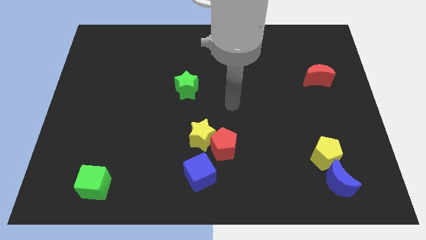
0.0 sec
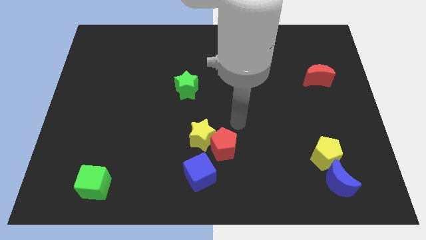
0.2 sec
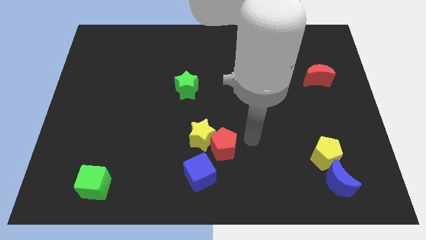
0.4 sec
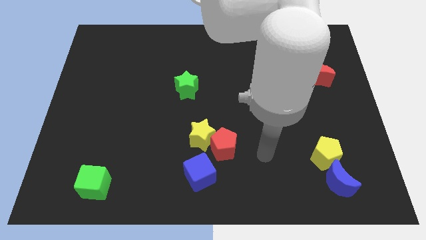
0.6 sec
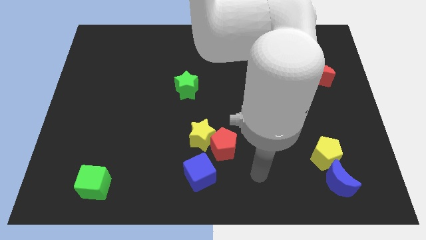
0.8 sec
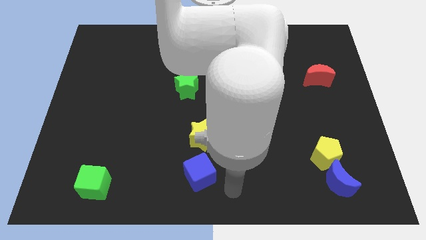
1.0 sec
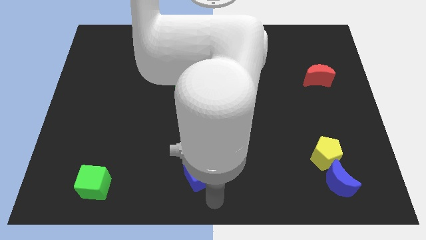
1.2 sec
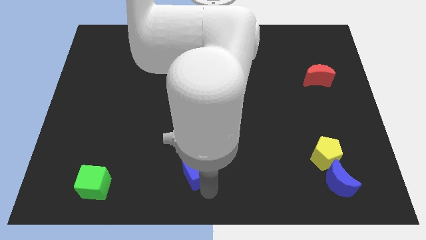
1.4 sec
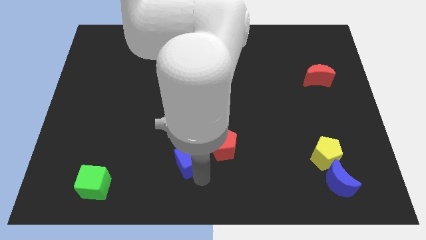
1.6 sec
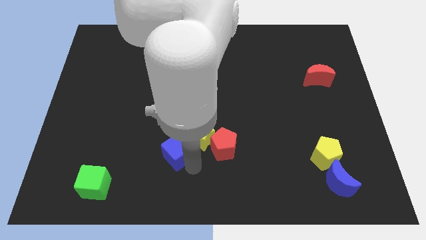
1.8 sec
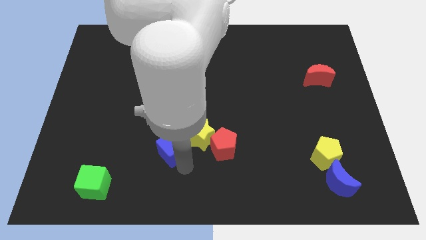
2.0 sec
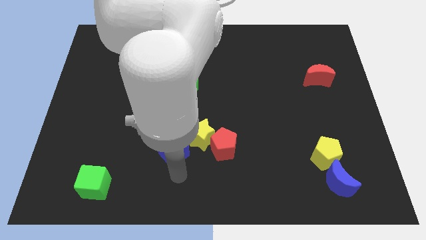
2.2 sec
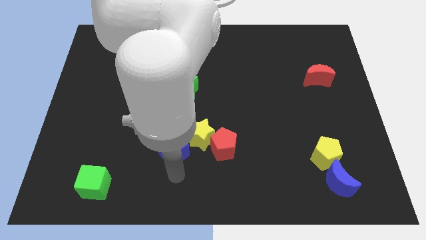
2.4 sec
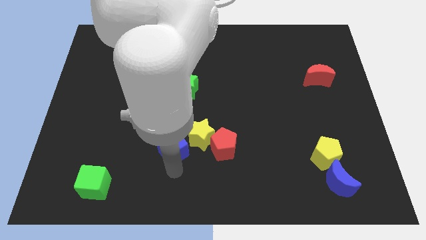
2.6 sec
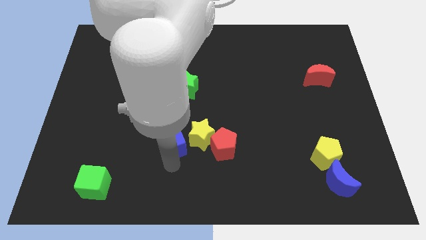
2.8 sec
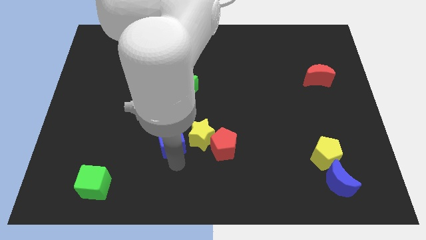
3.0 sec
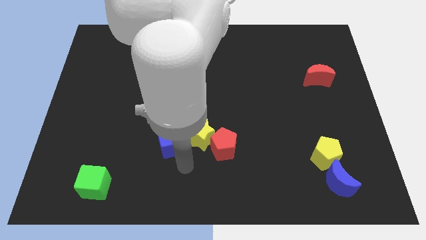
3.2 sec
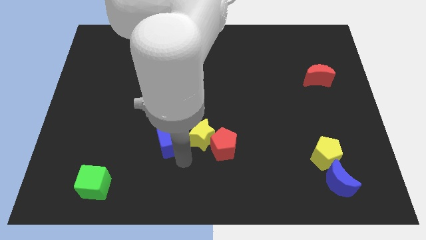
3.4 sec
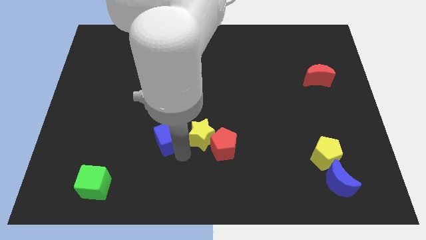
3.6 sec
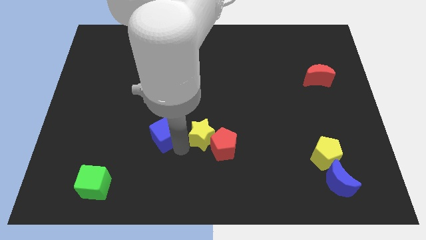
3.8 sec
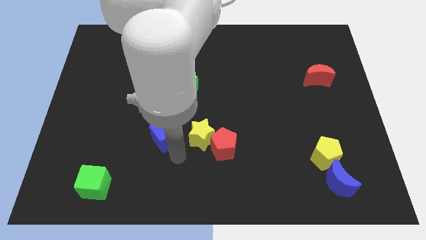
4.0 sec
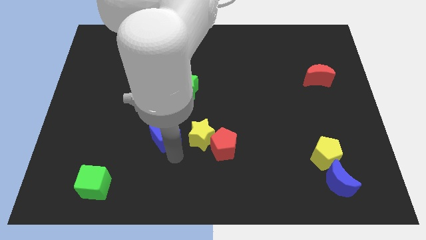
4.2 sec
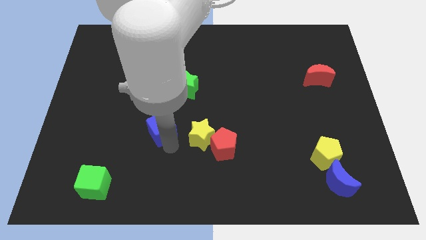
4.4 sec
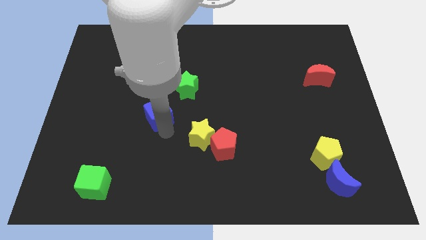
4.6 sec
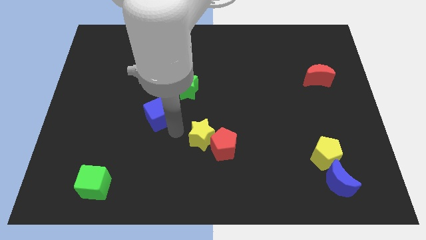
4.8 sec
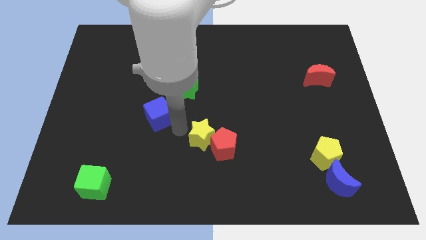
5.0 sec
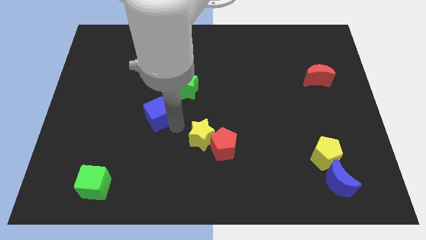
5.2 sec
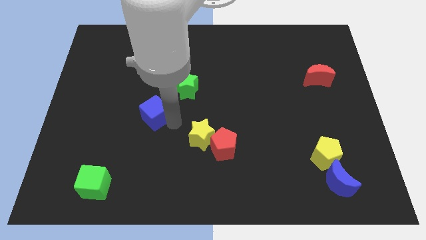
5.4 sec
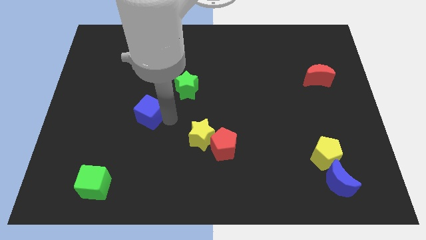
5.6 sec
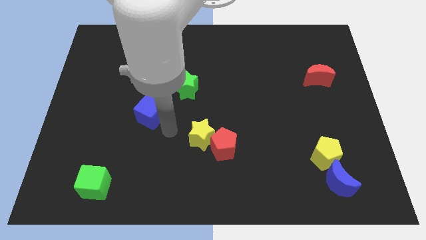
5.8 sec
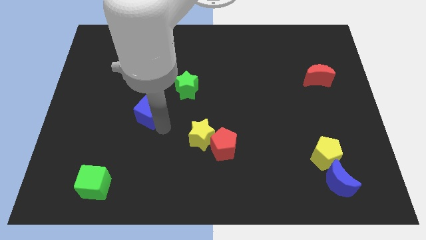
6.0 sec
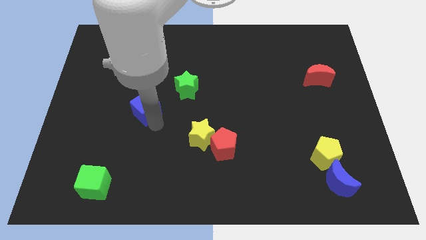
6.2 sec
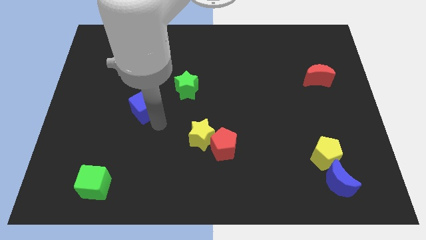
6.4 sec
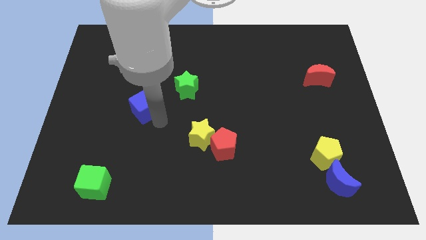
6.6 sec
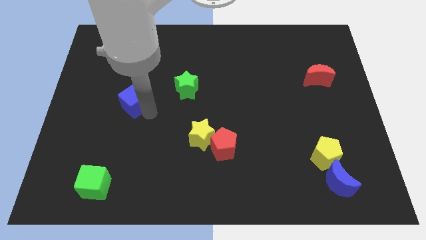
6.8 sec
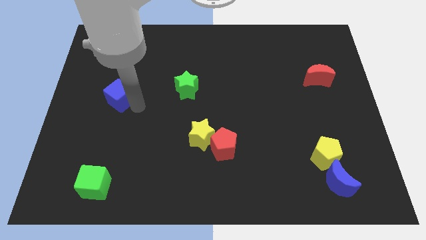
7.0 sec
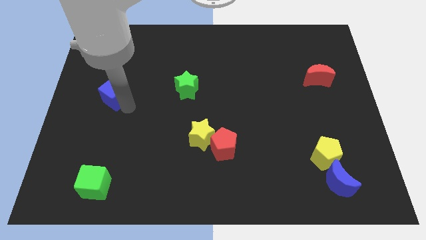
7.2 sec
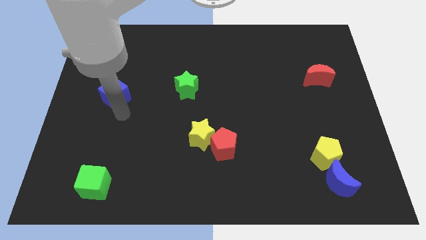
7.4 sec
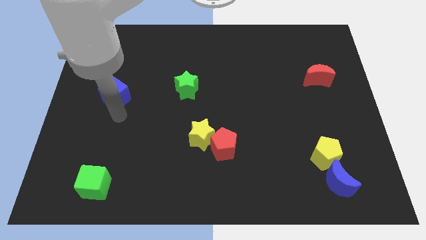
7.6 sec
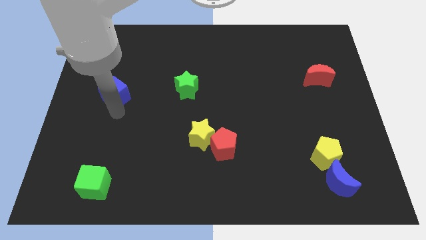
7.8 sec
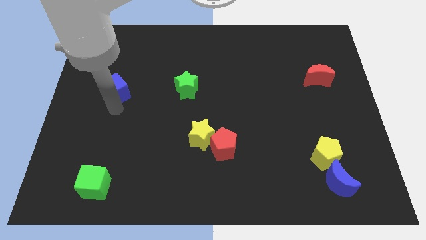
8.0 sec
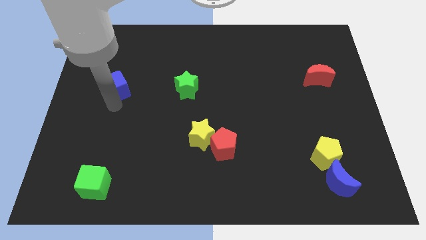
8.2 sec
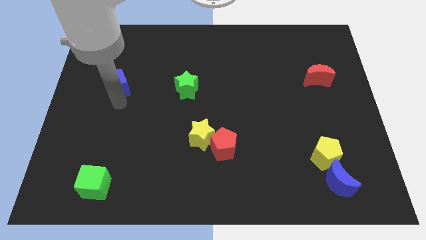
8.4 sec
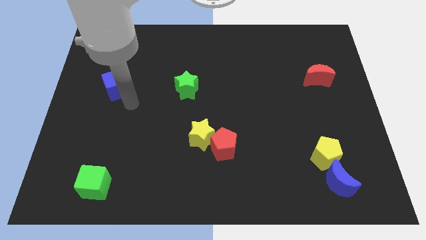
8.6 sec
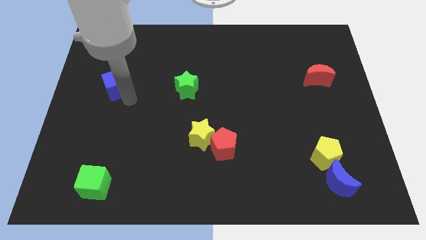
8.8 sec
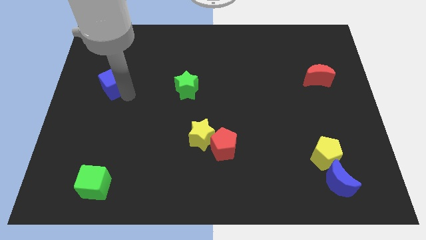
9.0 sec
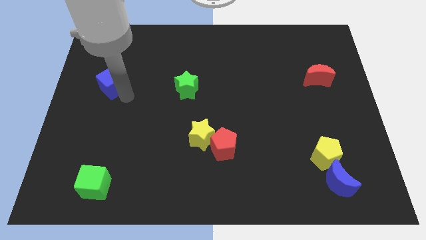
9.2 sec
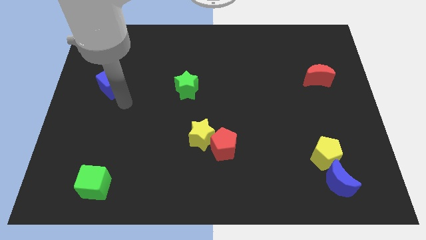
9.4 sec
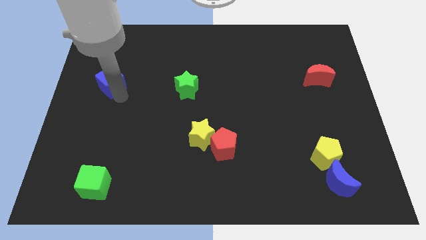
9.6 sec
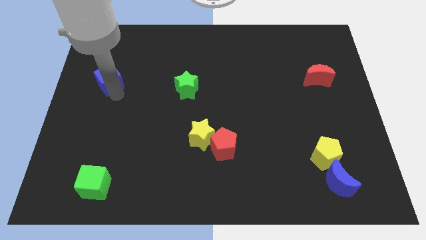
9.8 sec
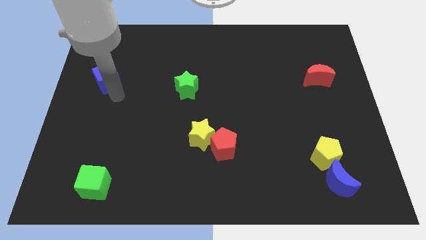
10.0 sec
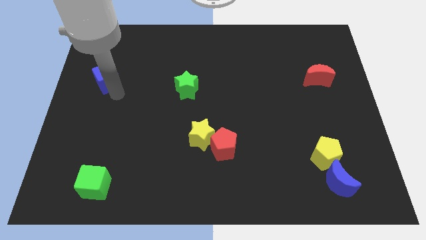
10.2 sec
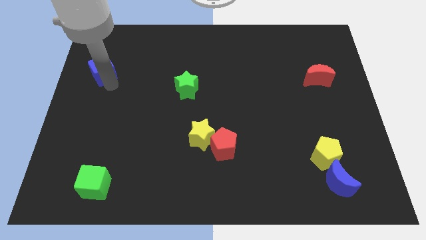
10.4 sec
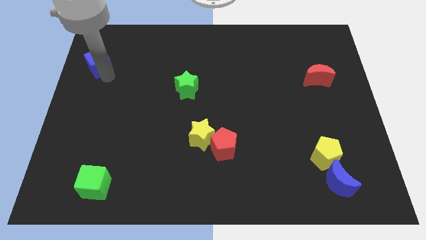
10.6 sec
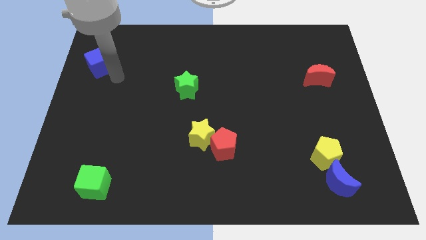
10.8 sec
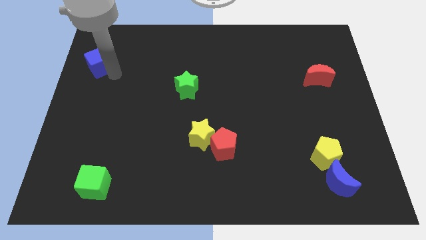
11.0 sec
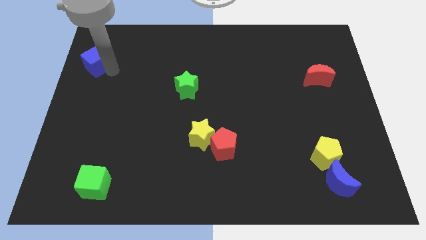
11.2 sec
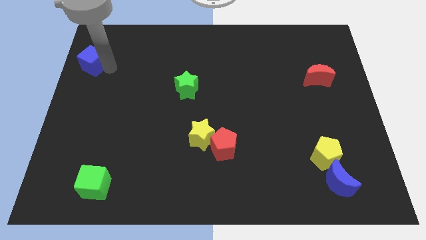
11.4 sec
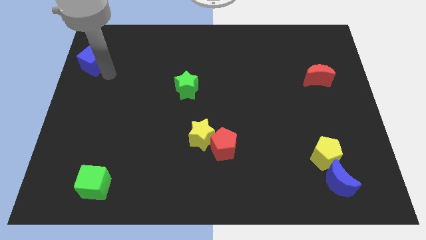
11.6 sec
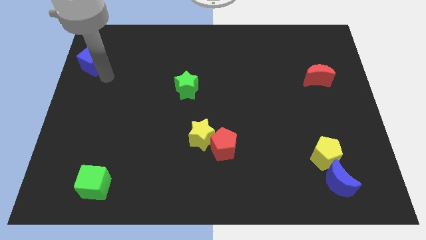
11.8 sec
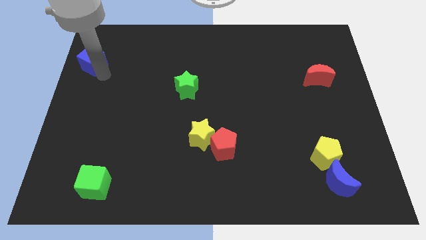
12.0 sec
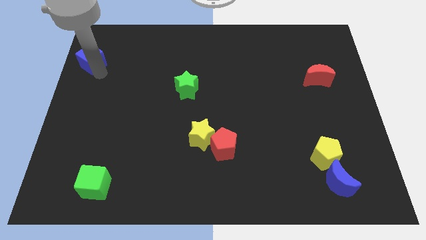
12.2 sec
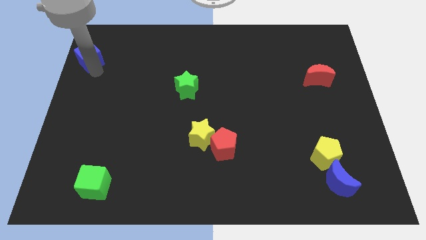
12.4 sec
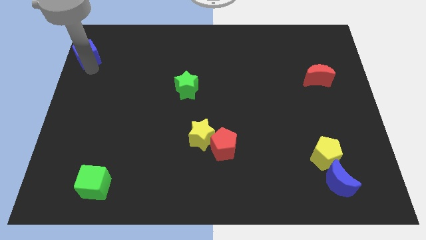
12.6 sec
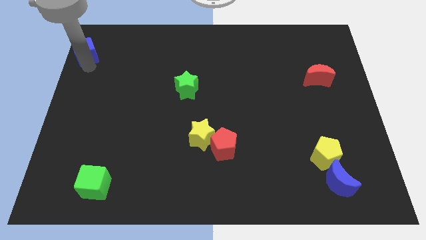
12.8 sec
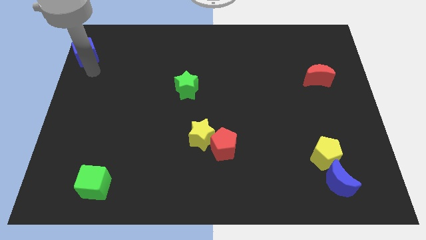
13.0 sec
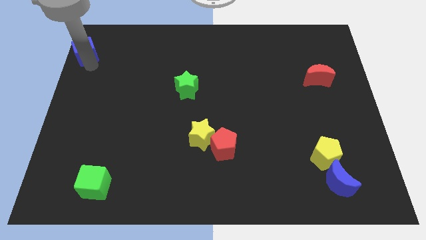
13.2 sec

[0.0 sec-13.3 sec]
slide the blue cube to the upper left corner
